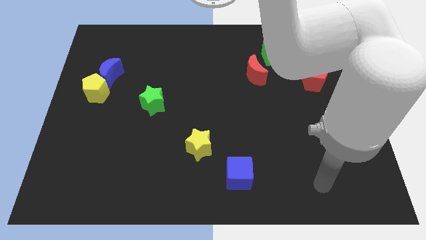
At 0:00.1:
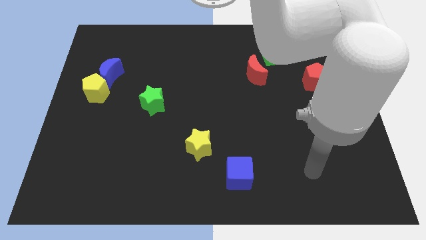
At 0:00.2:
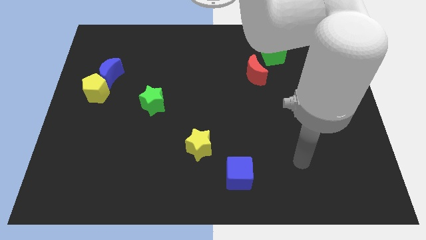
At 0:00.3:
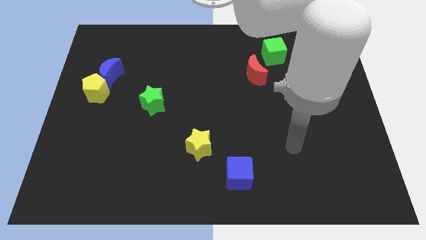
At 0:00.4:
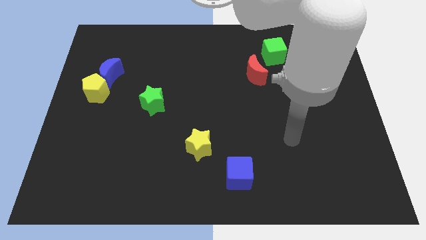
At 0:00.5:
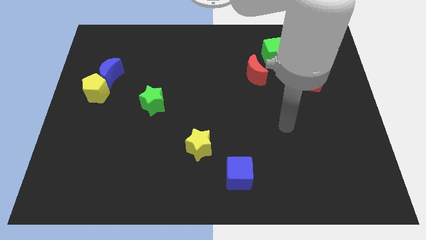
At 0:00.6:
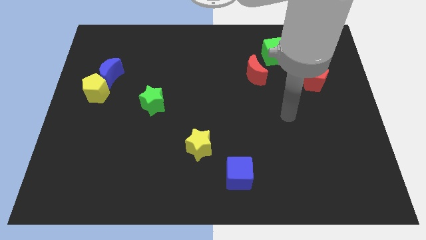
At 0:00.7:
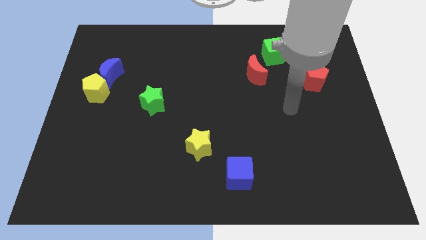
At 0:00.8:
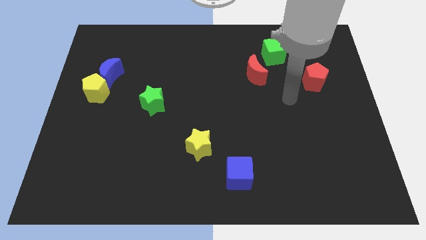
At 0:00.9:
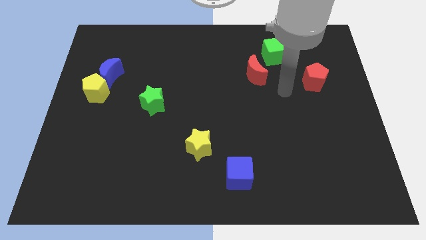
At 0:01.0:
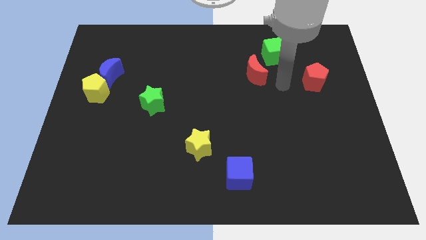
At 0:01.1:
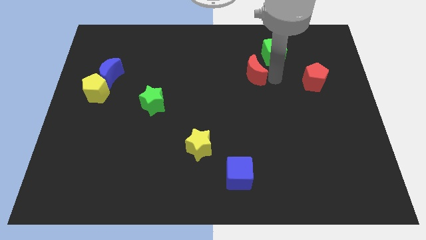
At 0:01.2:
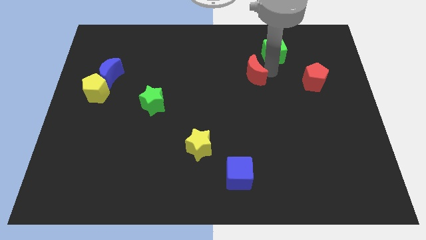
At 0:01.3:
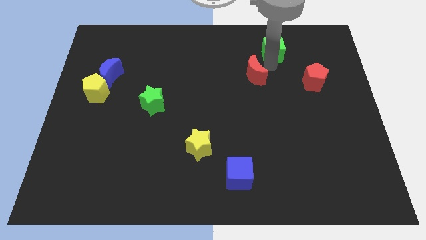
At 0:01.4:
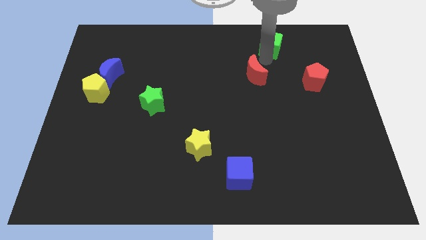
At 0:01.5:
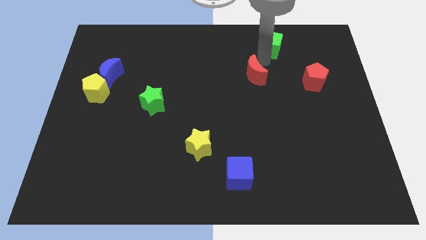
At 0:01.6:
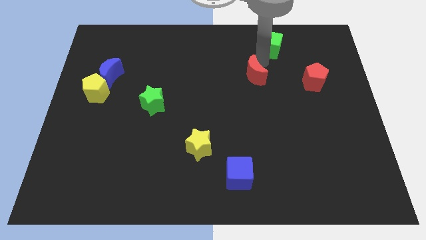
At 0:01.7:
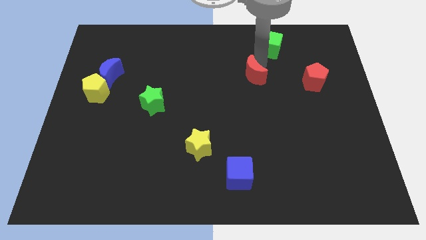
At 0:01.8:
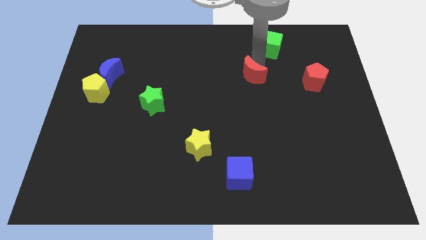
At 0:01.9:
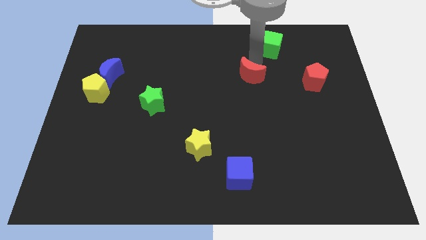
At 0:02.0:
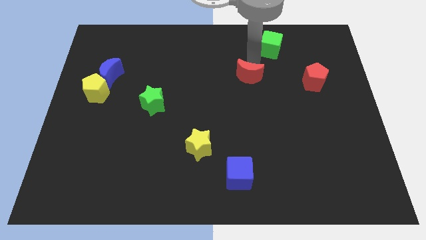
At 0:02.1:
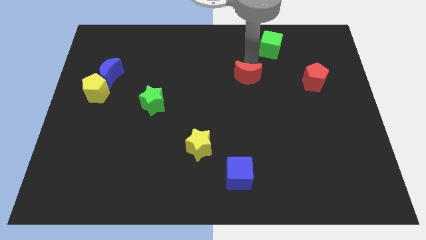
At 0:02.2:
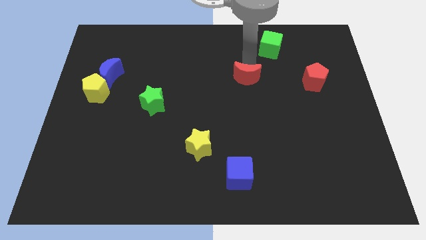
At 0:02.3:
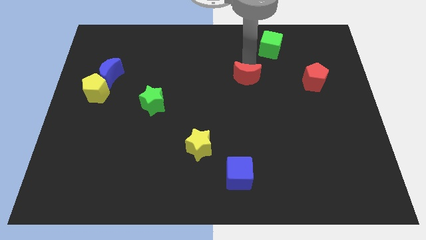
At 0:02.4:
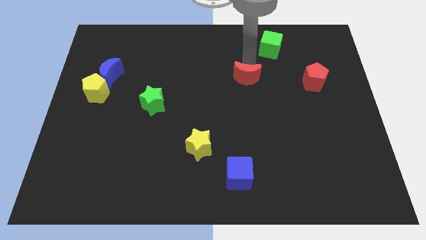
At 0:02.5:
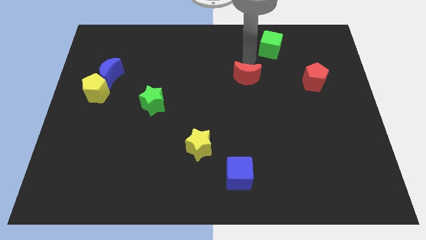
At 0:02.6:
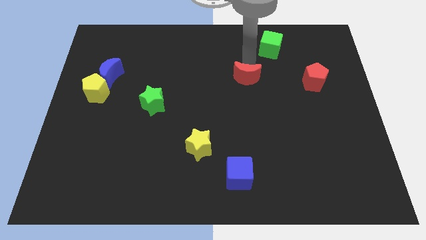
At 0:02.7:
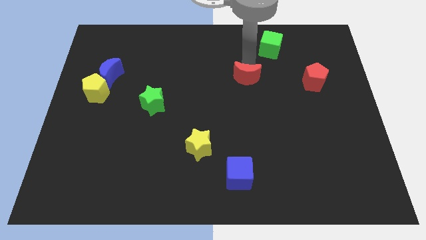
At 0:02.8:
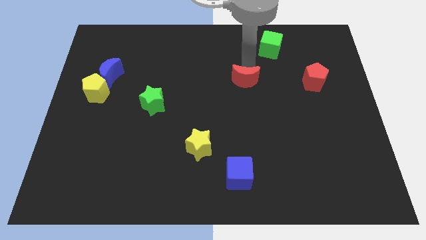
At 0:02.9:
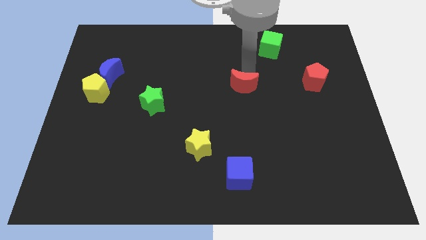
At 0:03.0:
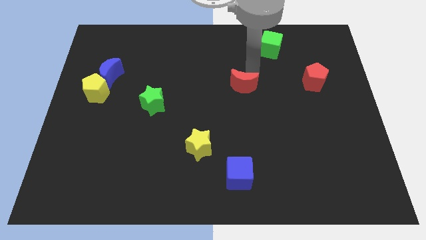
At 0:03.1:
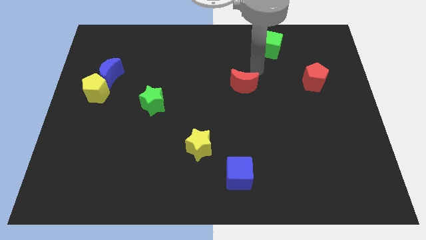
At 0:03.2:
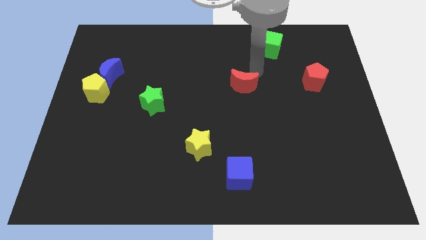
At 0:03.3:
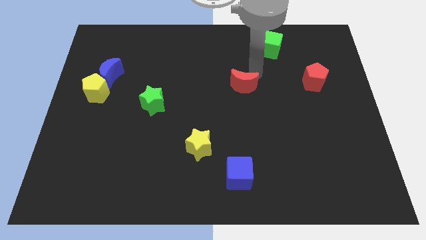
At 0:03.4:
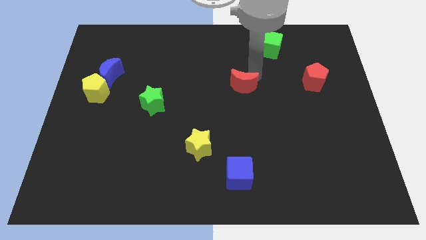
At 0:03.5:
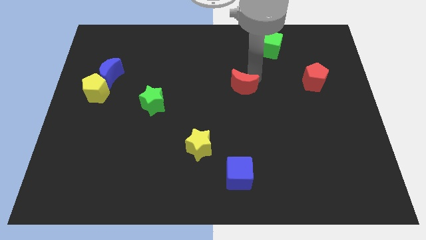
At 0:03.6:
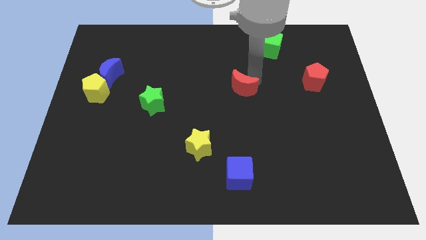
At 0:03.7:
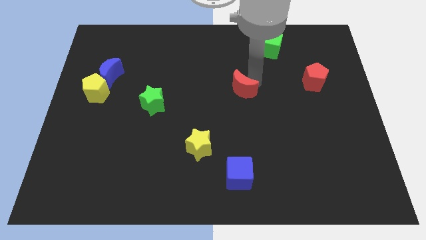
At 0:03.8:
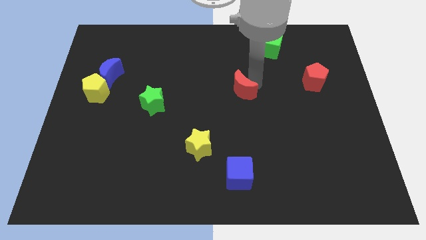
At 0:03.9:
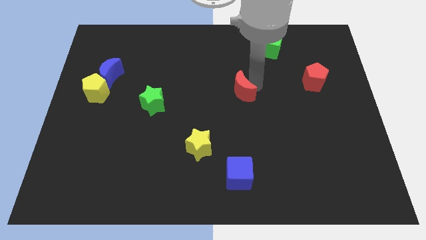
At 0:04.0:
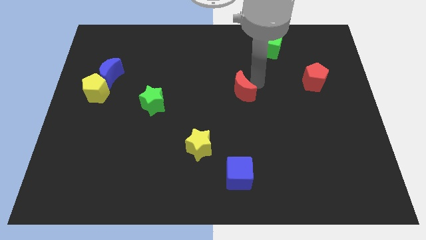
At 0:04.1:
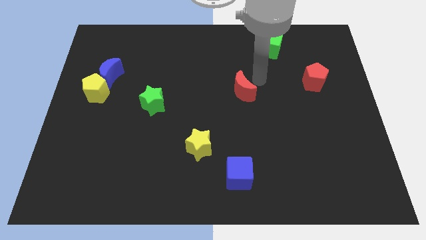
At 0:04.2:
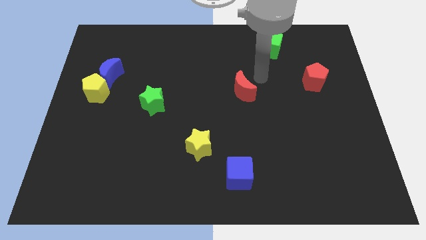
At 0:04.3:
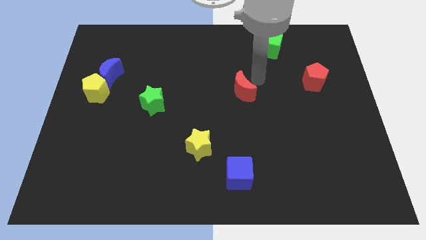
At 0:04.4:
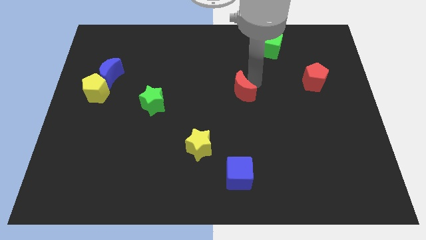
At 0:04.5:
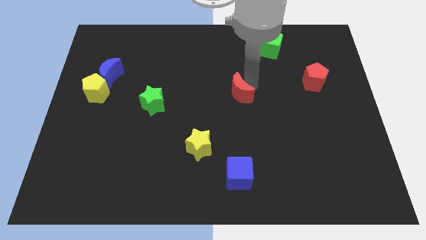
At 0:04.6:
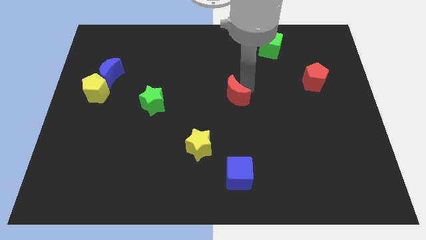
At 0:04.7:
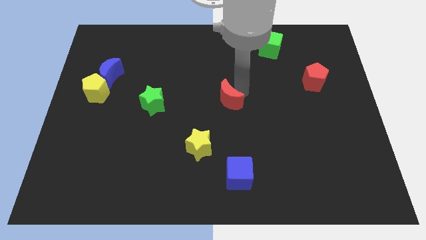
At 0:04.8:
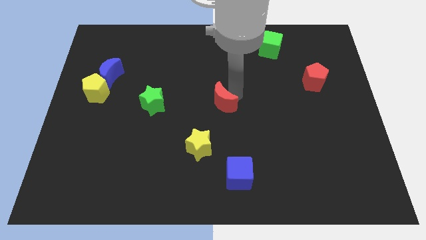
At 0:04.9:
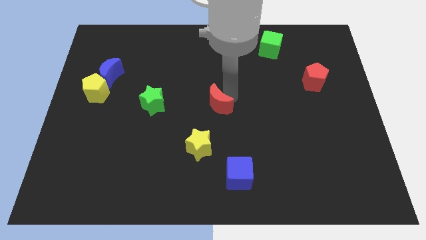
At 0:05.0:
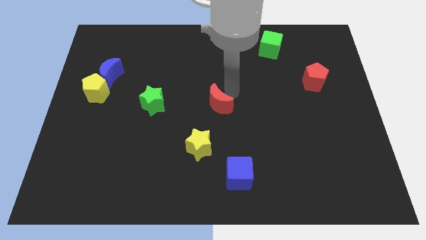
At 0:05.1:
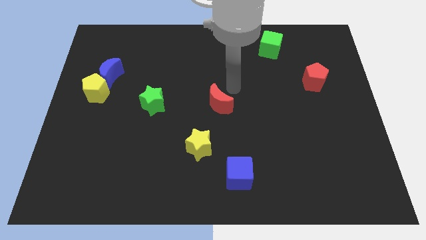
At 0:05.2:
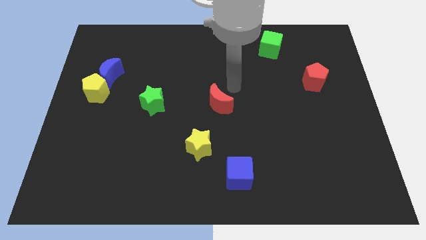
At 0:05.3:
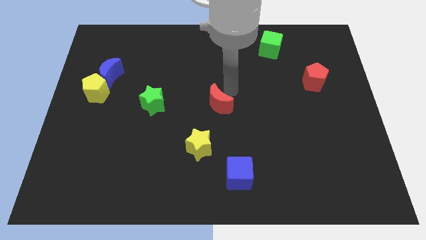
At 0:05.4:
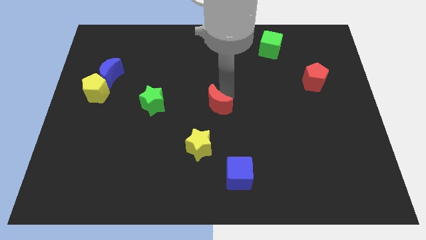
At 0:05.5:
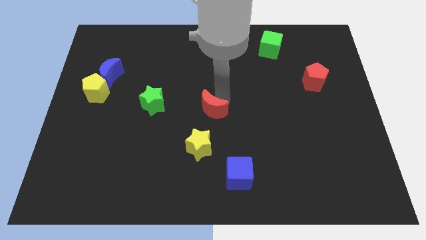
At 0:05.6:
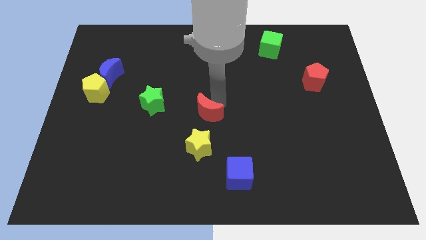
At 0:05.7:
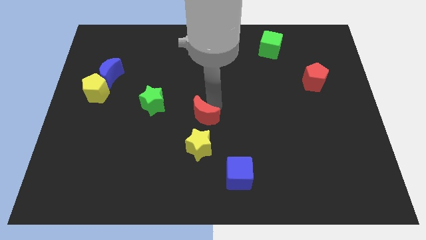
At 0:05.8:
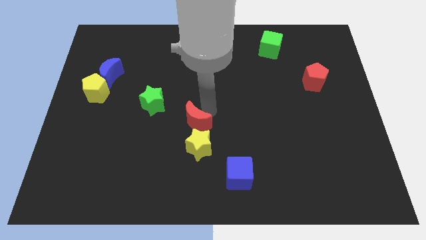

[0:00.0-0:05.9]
push the red moon downwards and then to the left

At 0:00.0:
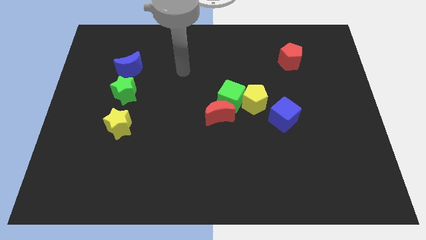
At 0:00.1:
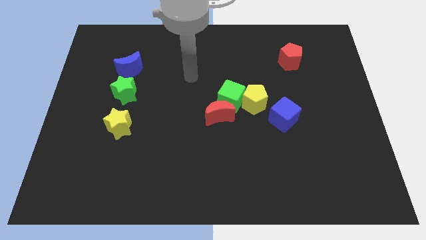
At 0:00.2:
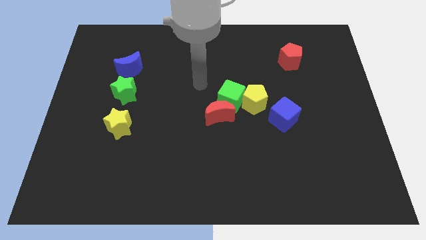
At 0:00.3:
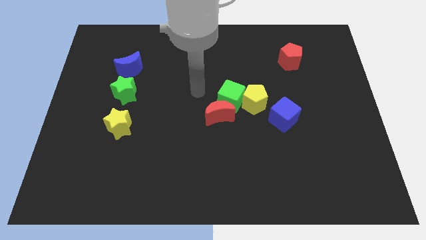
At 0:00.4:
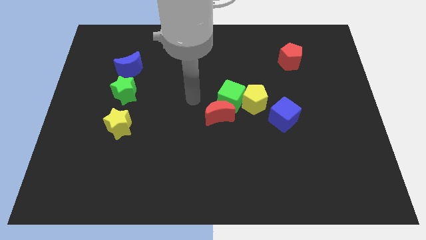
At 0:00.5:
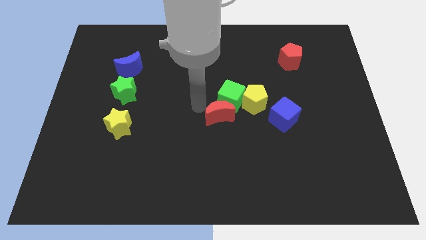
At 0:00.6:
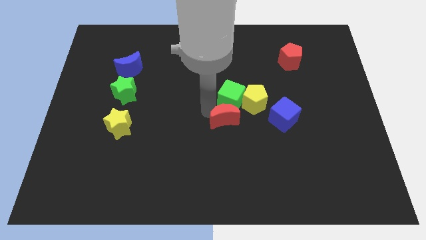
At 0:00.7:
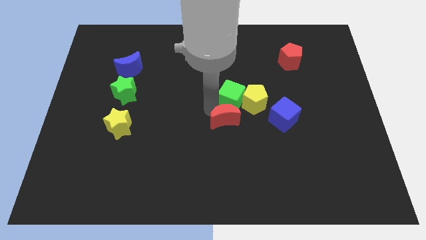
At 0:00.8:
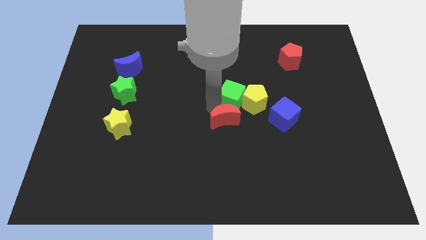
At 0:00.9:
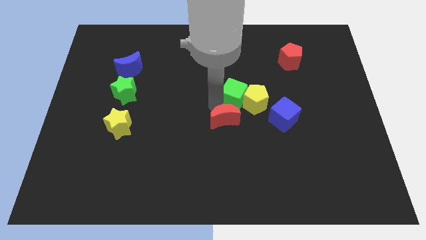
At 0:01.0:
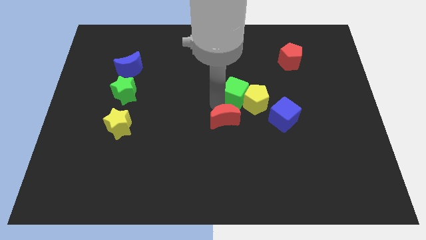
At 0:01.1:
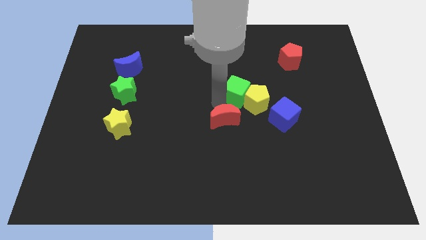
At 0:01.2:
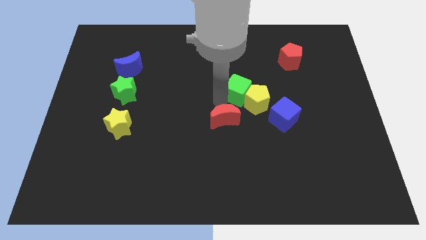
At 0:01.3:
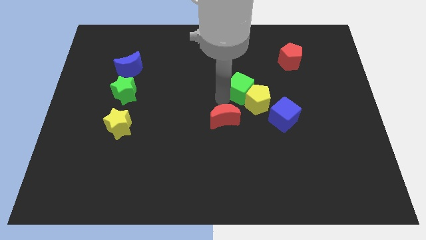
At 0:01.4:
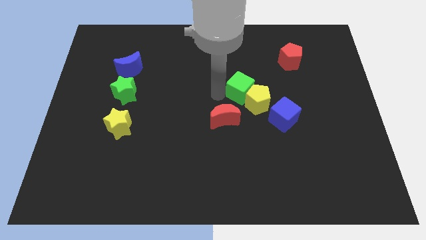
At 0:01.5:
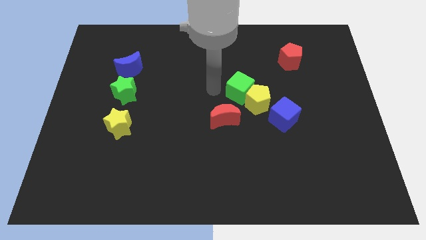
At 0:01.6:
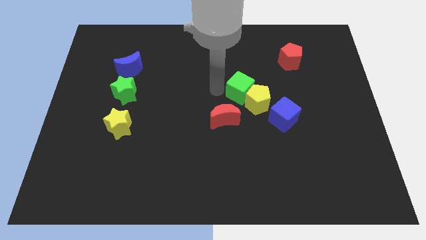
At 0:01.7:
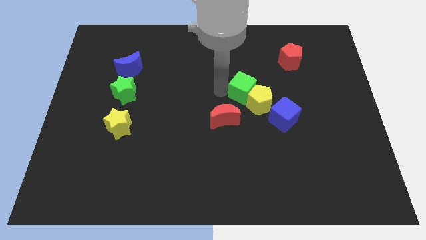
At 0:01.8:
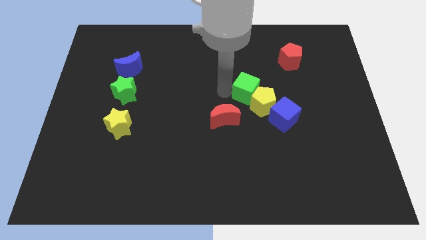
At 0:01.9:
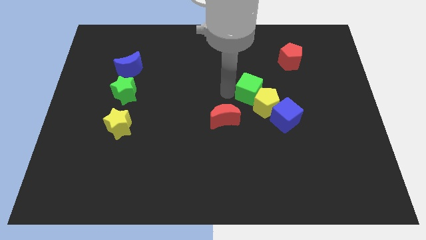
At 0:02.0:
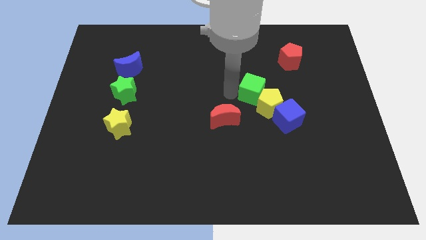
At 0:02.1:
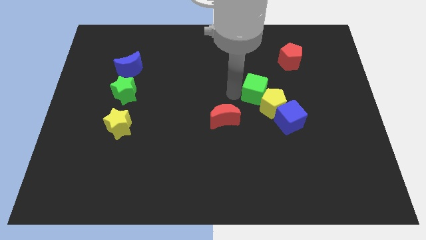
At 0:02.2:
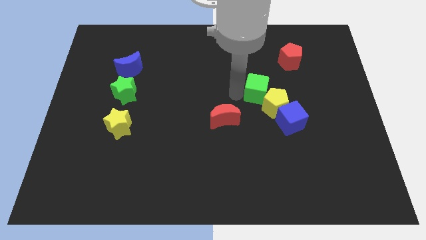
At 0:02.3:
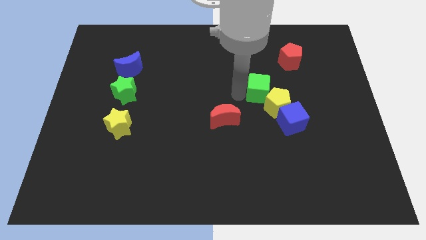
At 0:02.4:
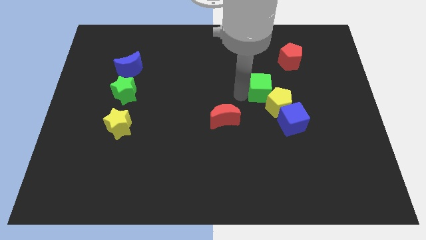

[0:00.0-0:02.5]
slightly push the green cube to the right
